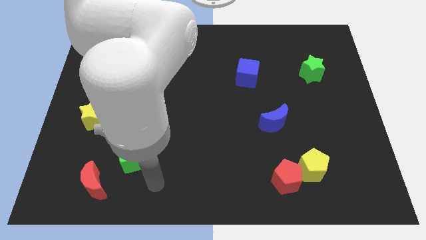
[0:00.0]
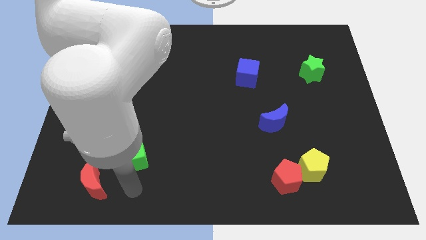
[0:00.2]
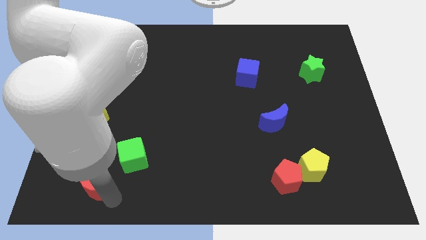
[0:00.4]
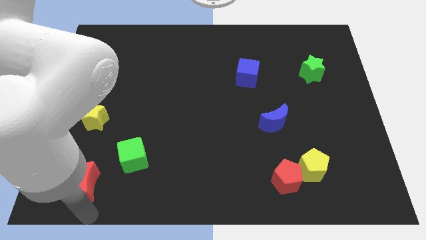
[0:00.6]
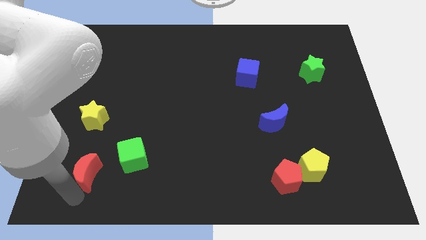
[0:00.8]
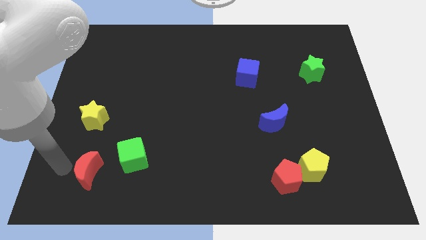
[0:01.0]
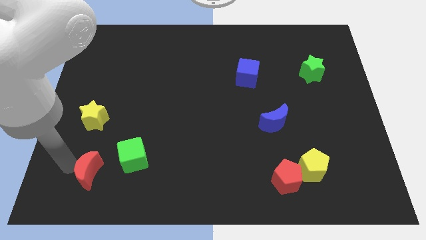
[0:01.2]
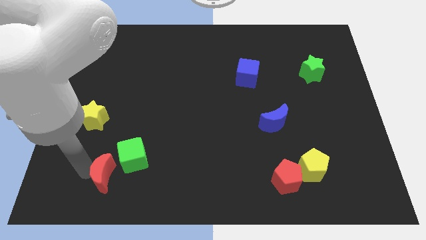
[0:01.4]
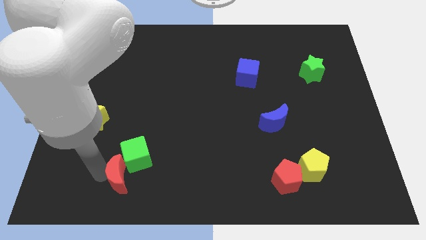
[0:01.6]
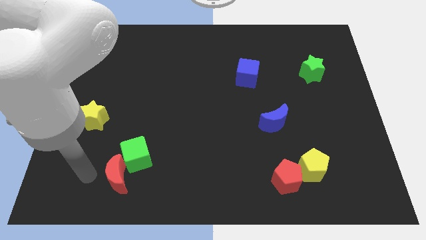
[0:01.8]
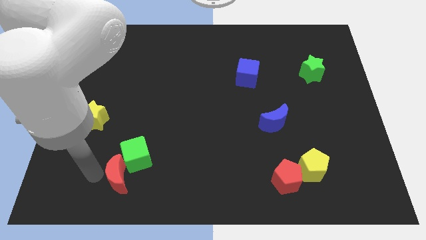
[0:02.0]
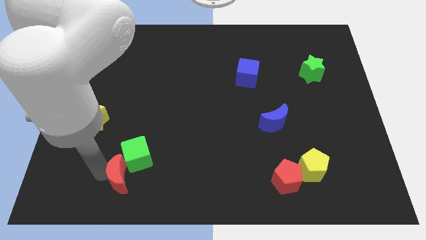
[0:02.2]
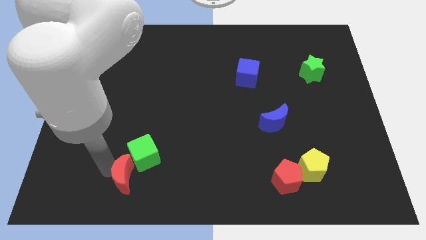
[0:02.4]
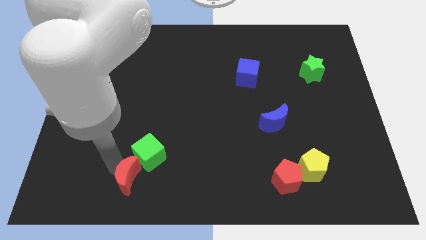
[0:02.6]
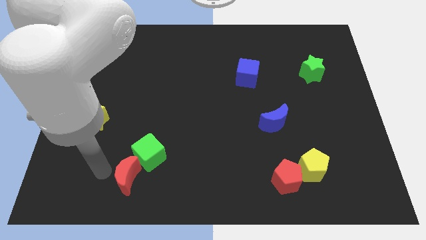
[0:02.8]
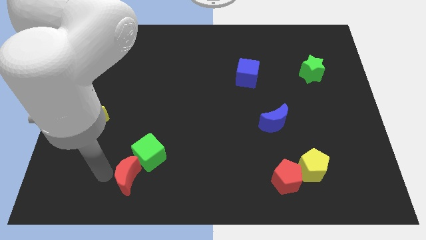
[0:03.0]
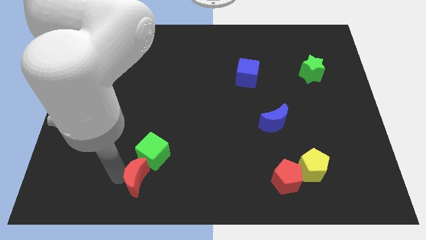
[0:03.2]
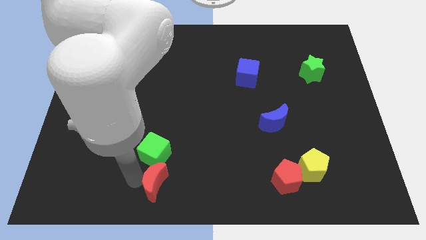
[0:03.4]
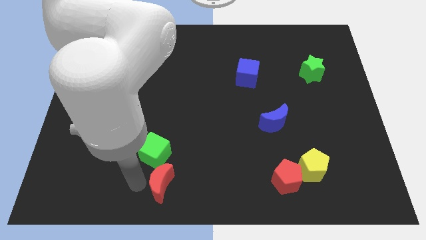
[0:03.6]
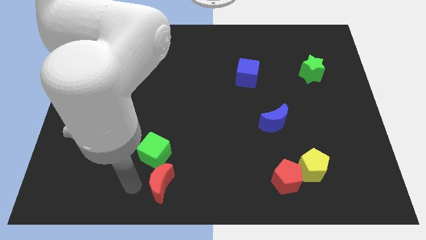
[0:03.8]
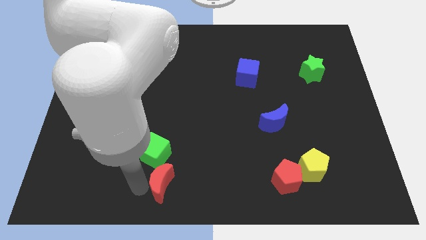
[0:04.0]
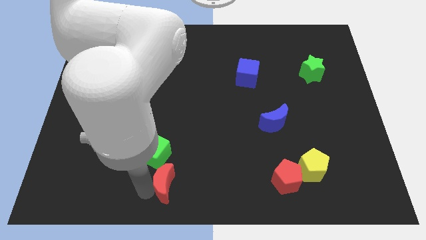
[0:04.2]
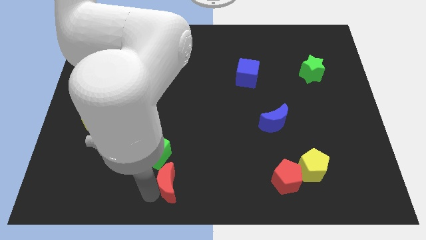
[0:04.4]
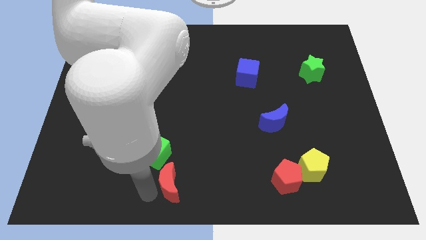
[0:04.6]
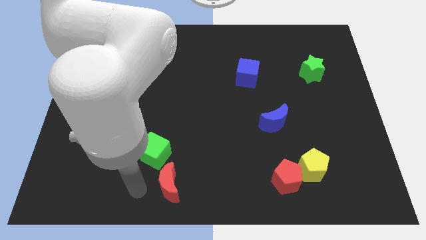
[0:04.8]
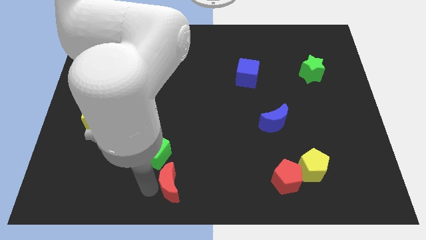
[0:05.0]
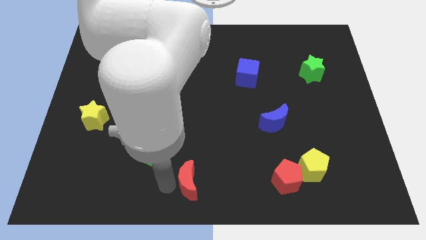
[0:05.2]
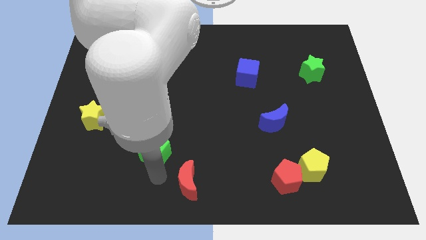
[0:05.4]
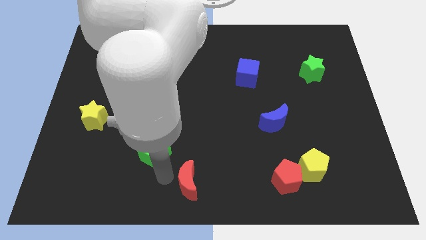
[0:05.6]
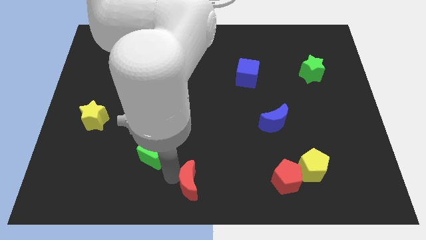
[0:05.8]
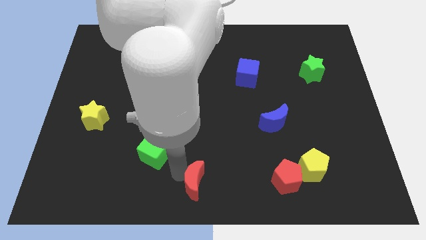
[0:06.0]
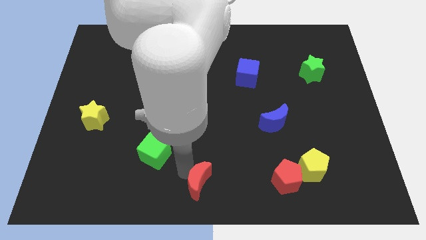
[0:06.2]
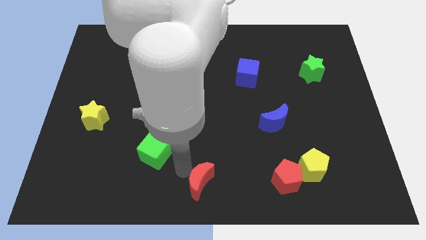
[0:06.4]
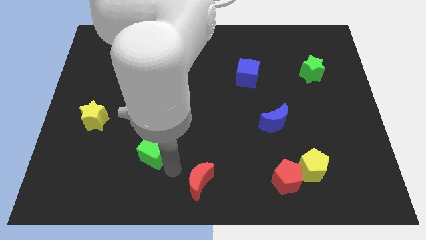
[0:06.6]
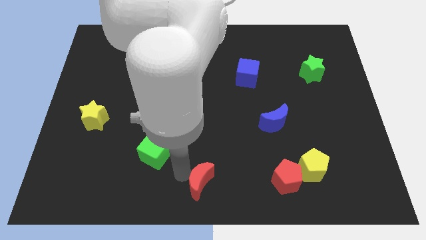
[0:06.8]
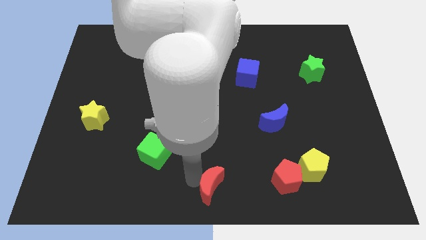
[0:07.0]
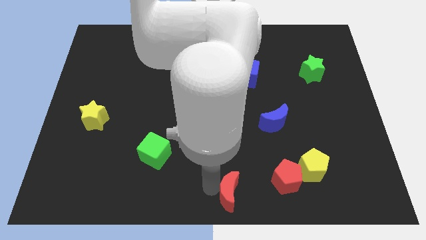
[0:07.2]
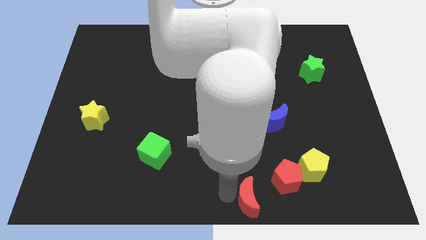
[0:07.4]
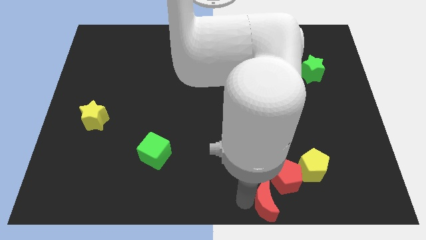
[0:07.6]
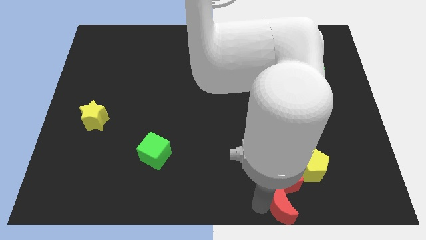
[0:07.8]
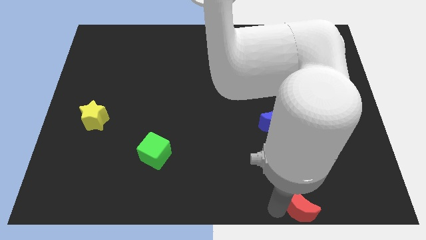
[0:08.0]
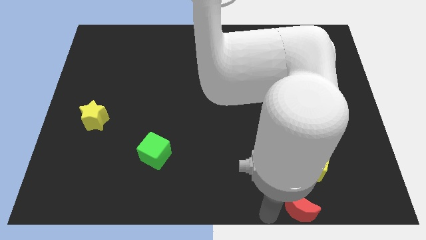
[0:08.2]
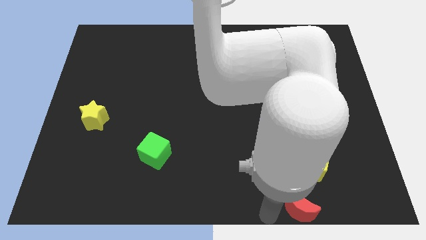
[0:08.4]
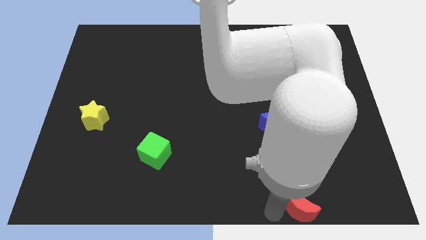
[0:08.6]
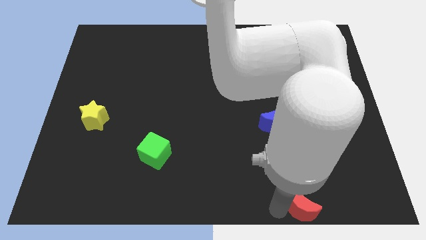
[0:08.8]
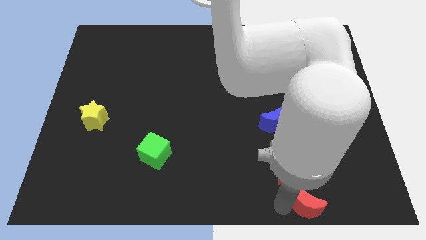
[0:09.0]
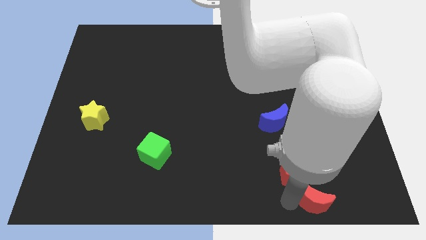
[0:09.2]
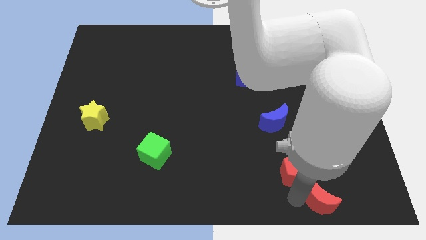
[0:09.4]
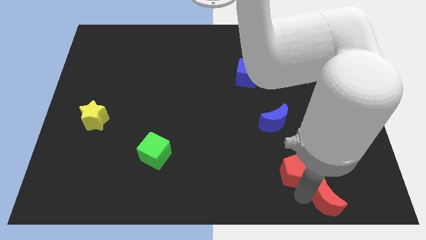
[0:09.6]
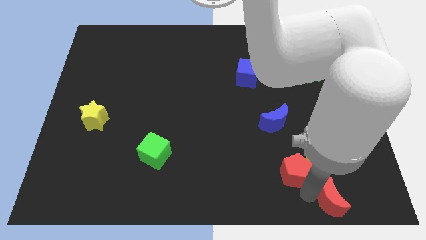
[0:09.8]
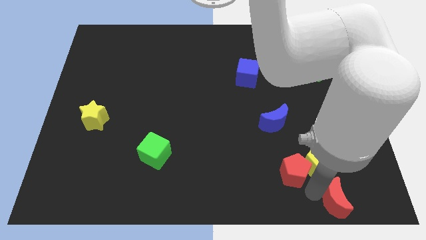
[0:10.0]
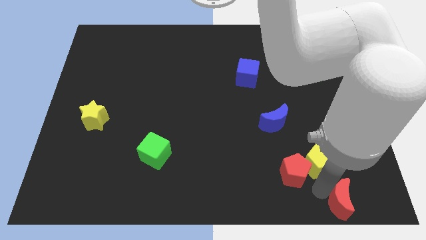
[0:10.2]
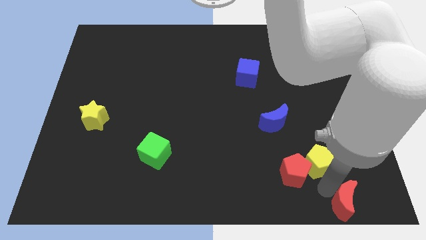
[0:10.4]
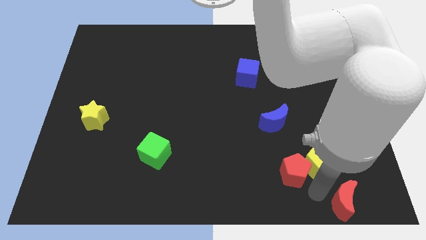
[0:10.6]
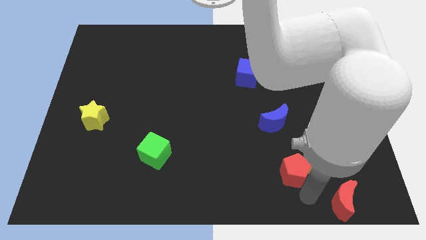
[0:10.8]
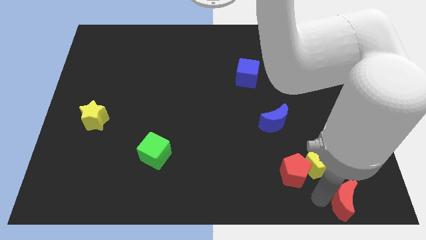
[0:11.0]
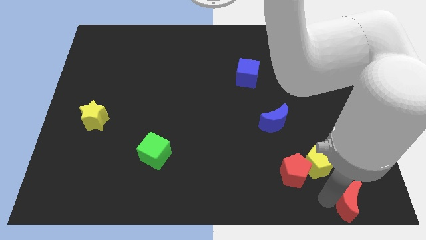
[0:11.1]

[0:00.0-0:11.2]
push the red moon to the bottom right corner
